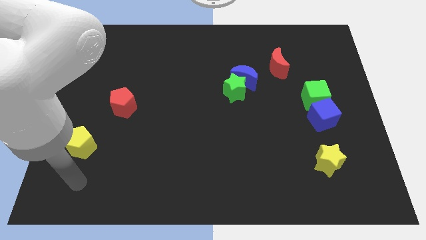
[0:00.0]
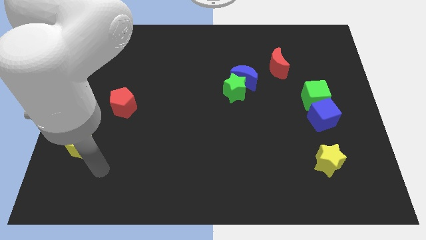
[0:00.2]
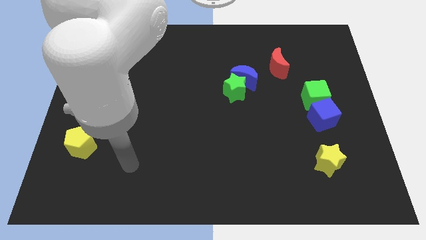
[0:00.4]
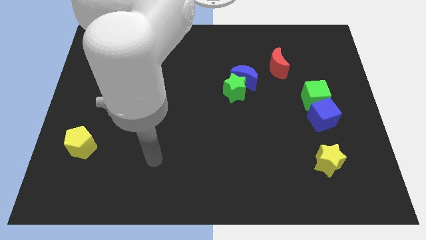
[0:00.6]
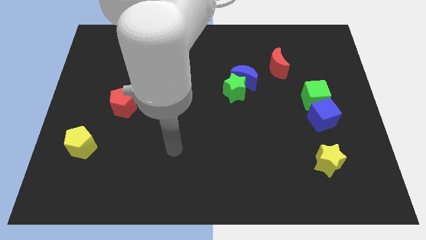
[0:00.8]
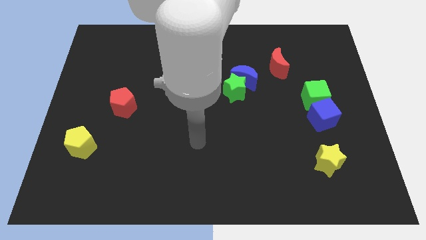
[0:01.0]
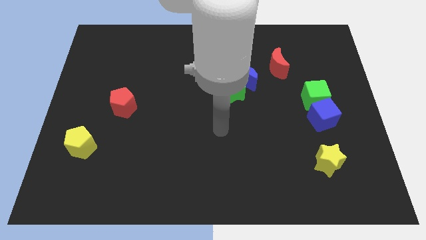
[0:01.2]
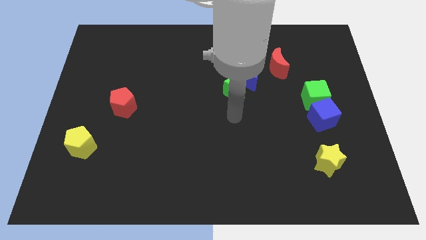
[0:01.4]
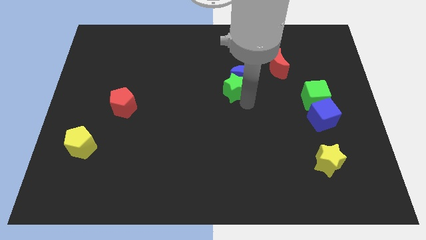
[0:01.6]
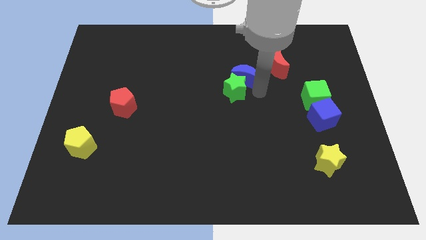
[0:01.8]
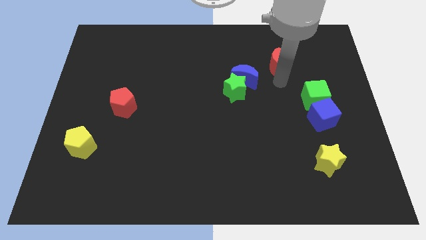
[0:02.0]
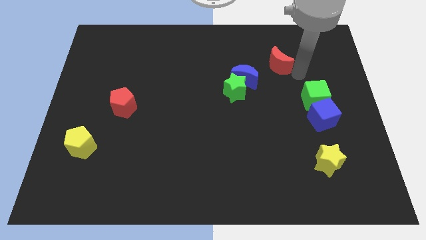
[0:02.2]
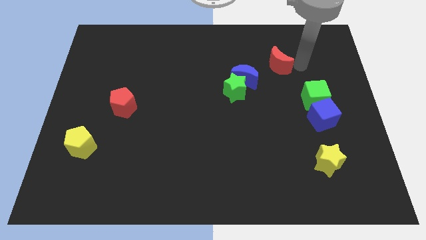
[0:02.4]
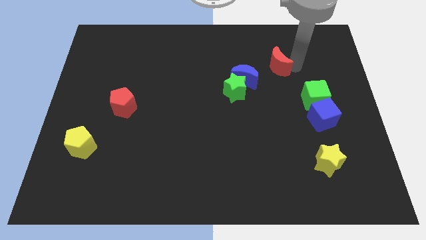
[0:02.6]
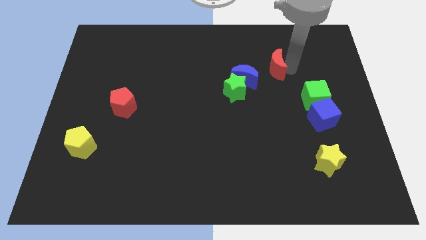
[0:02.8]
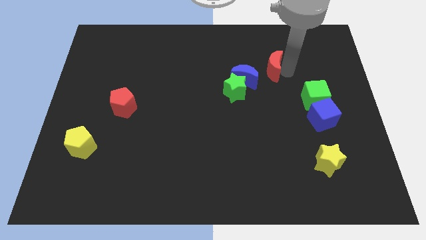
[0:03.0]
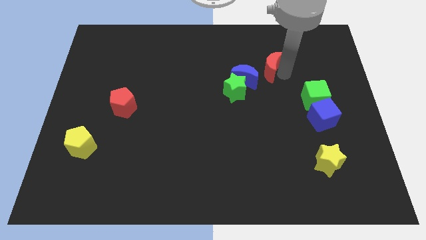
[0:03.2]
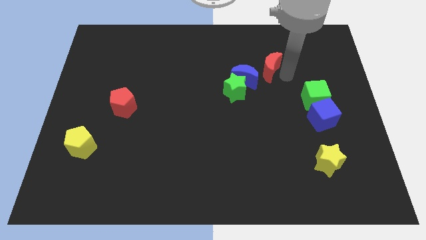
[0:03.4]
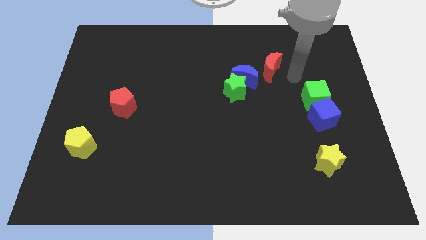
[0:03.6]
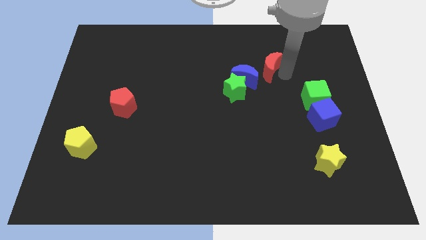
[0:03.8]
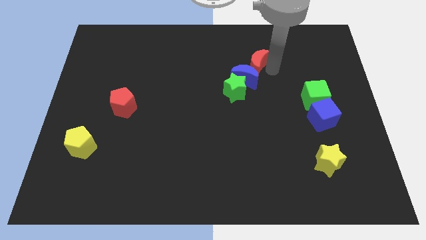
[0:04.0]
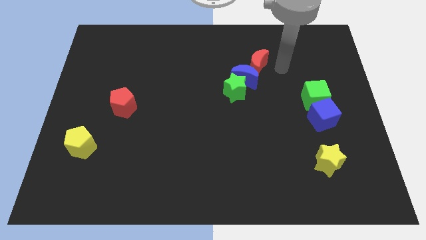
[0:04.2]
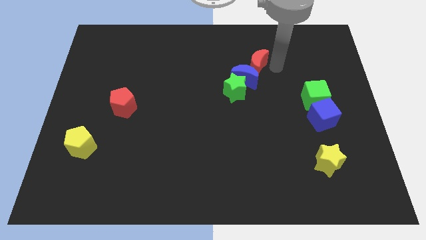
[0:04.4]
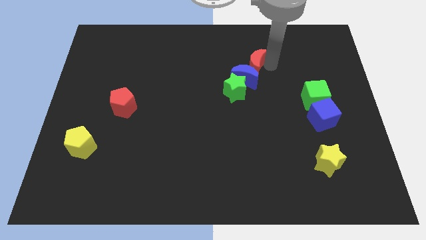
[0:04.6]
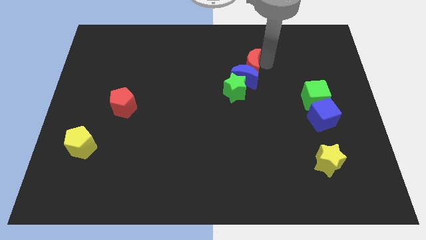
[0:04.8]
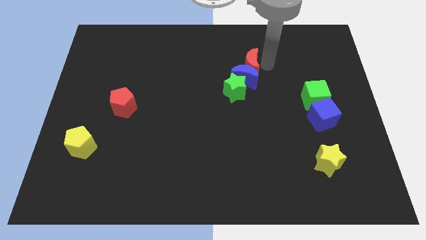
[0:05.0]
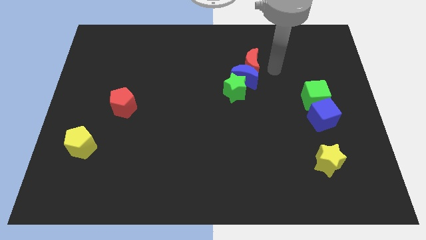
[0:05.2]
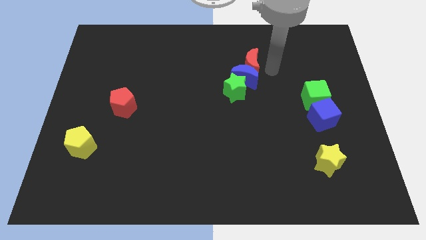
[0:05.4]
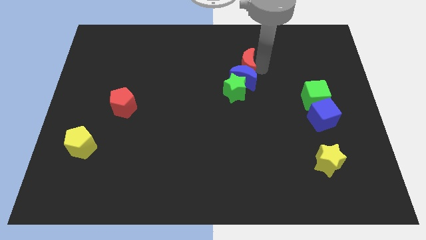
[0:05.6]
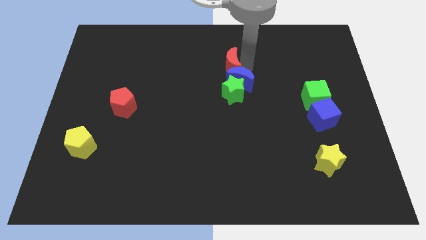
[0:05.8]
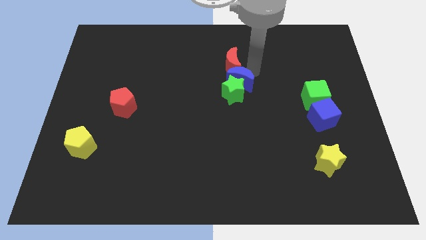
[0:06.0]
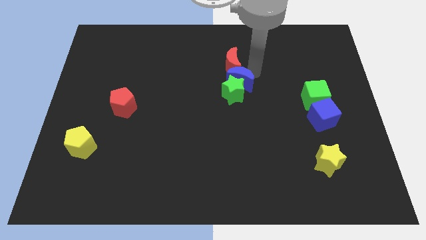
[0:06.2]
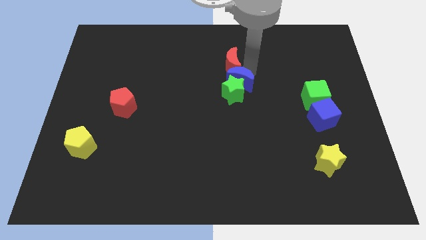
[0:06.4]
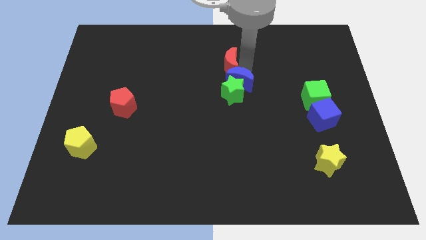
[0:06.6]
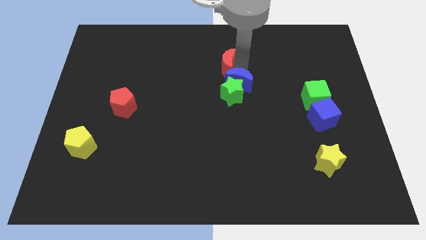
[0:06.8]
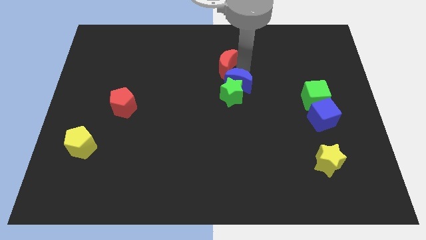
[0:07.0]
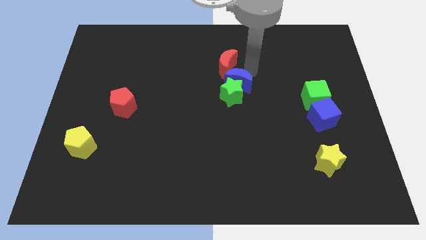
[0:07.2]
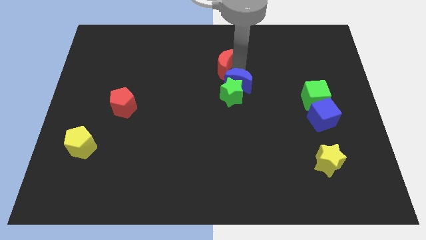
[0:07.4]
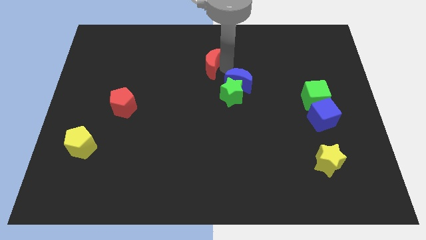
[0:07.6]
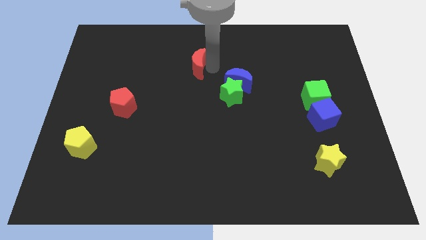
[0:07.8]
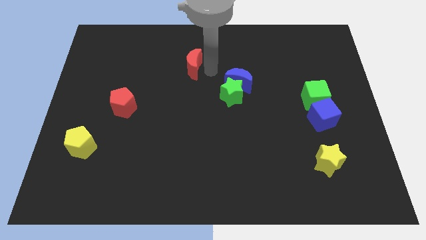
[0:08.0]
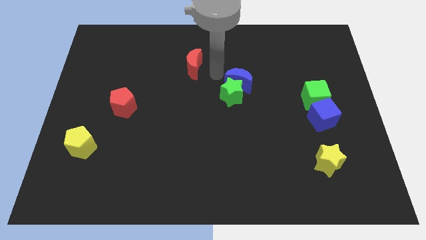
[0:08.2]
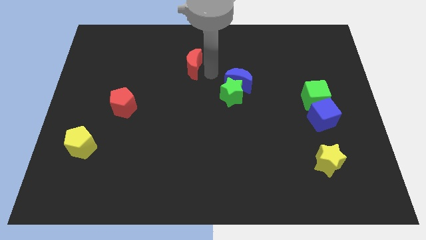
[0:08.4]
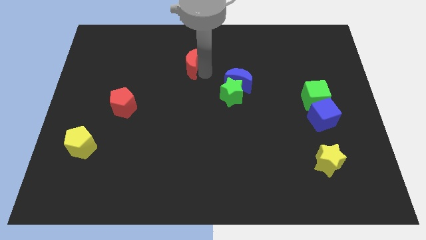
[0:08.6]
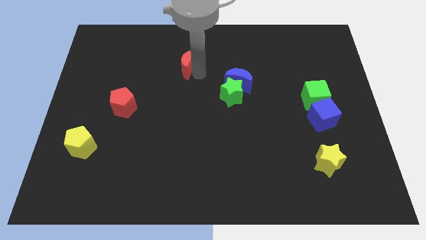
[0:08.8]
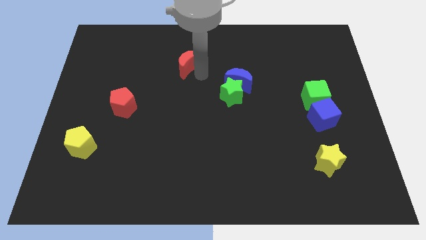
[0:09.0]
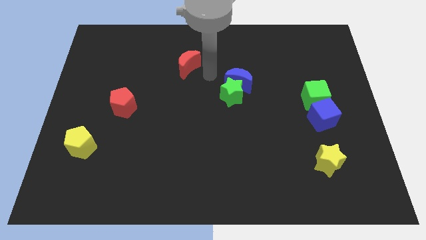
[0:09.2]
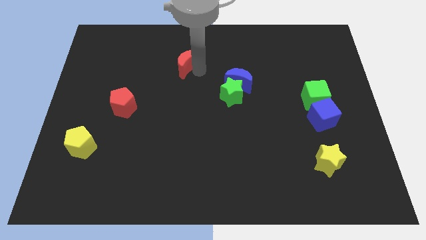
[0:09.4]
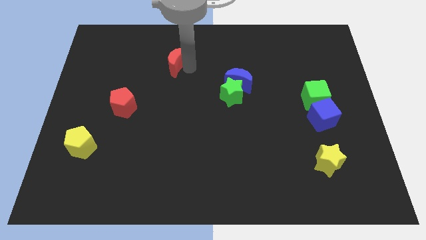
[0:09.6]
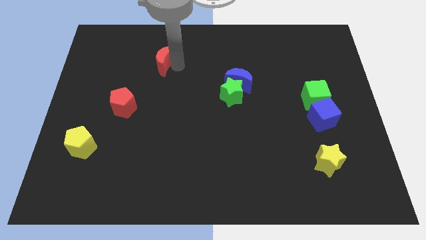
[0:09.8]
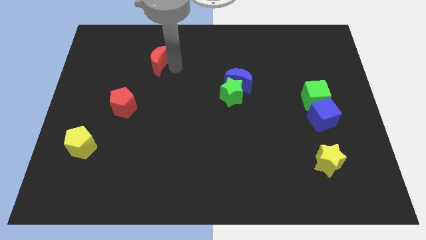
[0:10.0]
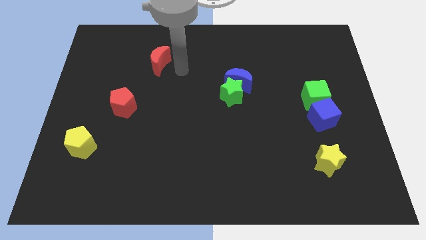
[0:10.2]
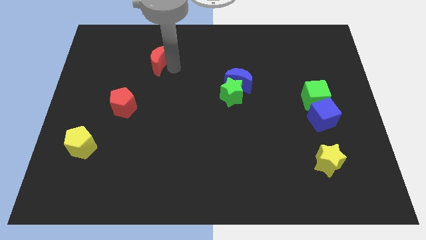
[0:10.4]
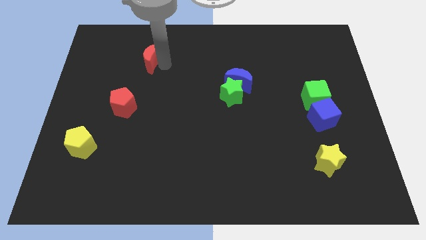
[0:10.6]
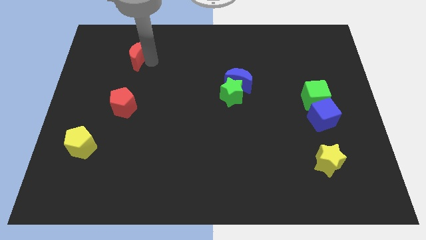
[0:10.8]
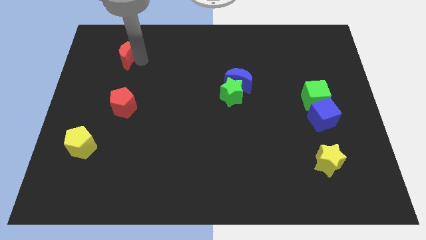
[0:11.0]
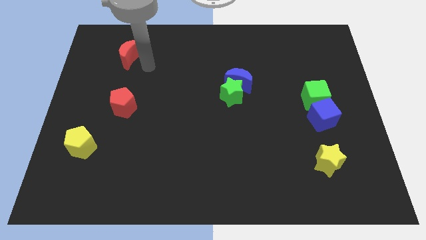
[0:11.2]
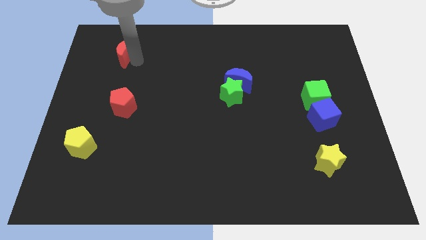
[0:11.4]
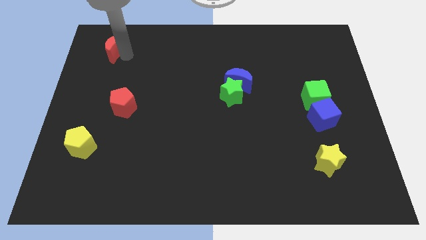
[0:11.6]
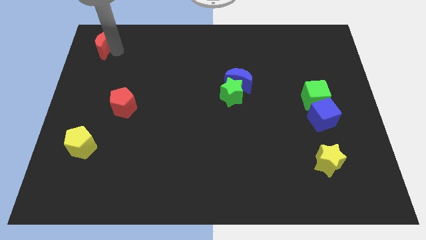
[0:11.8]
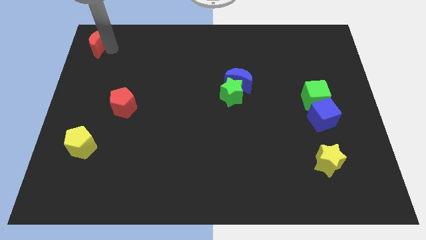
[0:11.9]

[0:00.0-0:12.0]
push the red moon to the top left of the board

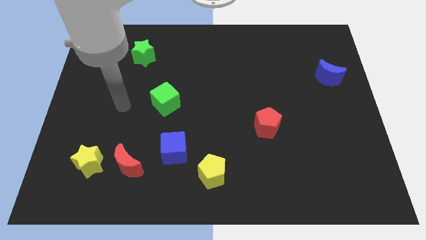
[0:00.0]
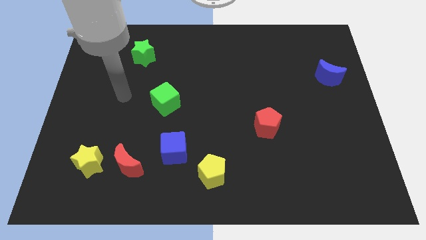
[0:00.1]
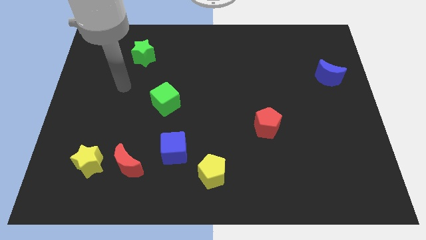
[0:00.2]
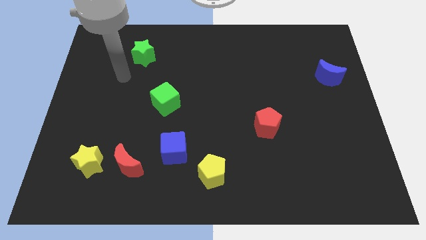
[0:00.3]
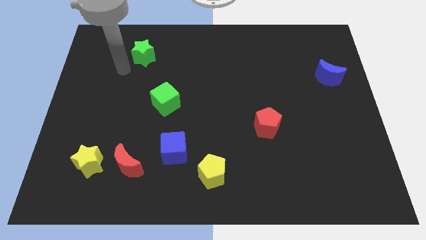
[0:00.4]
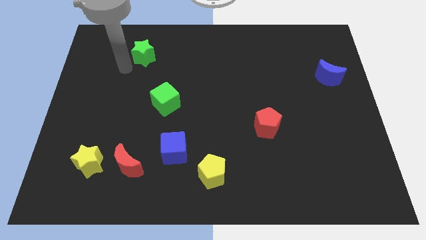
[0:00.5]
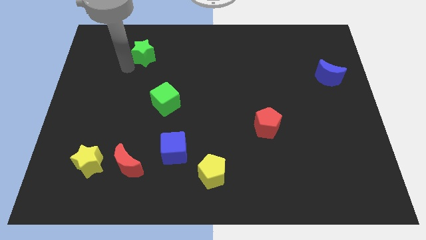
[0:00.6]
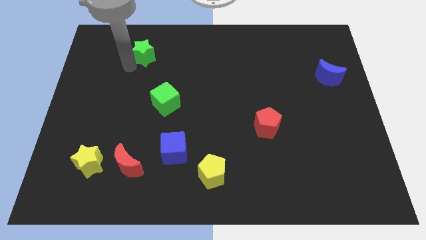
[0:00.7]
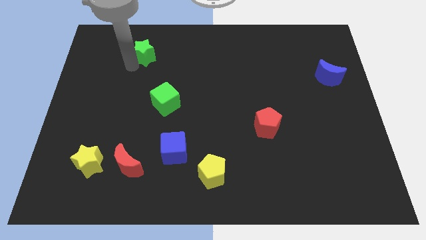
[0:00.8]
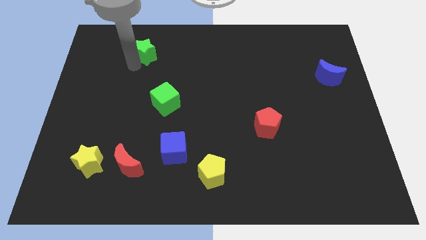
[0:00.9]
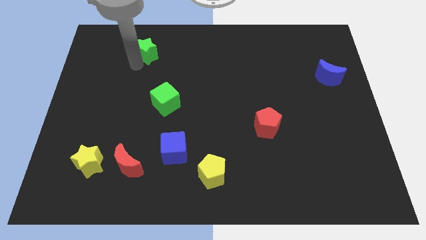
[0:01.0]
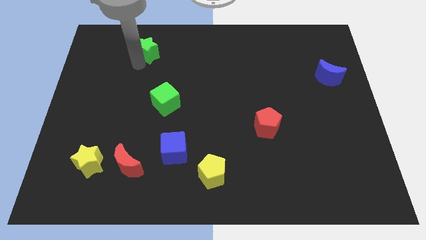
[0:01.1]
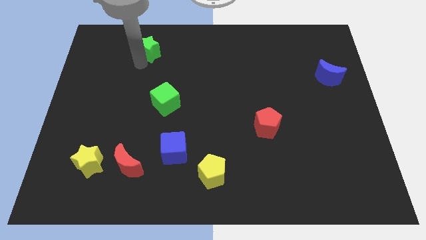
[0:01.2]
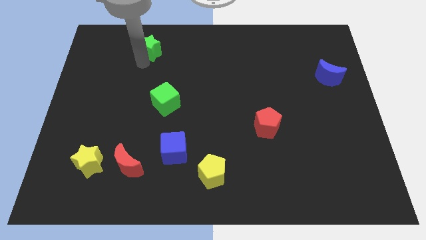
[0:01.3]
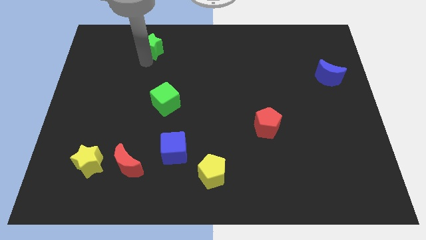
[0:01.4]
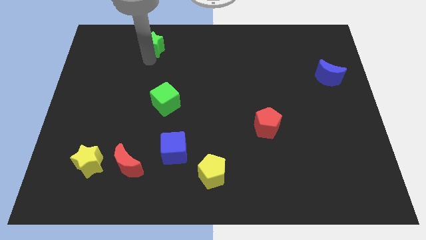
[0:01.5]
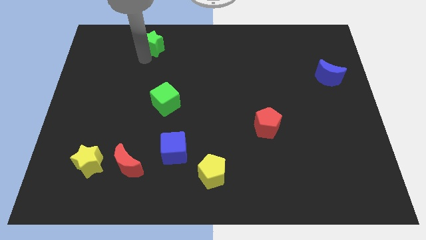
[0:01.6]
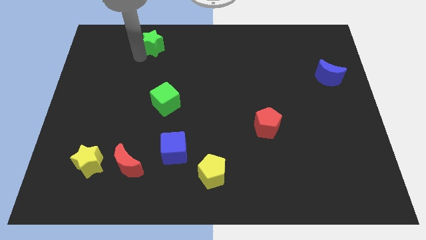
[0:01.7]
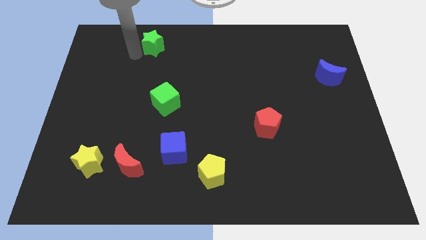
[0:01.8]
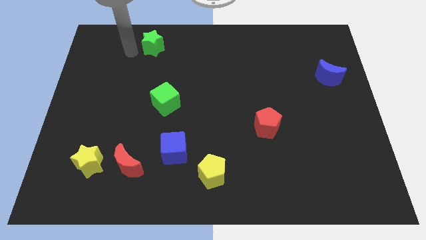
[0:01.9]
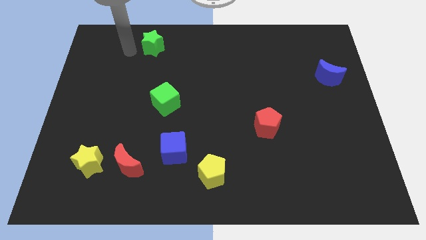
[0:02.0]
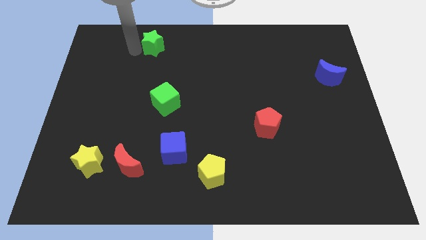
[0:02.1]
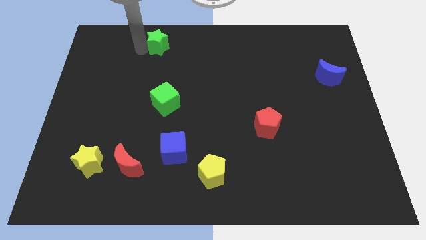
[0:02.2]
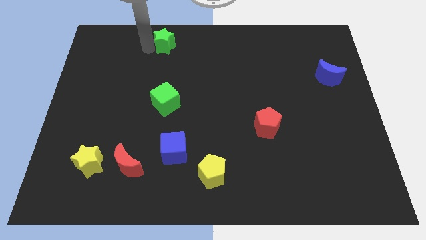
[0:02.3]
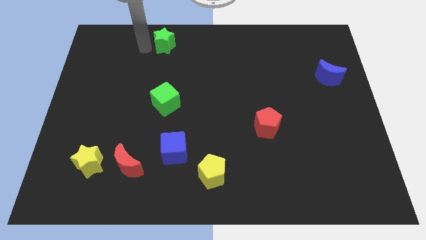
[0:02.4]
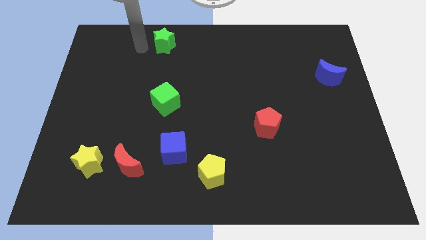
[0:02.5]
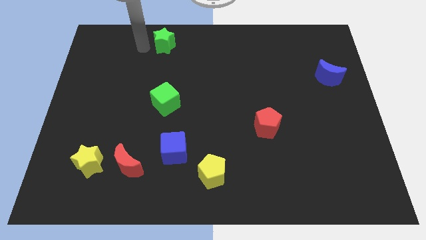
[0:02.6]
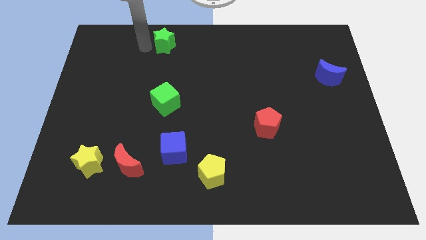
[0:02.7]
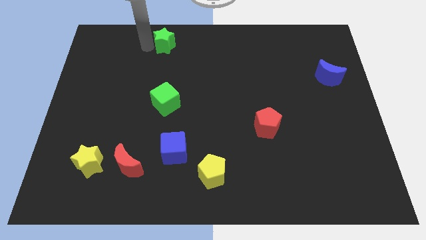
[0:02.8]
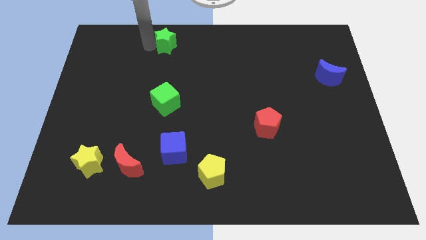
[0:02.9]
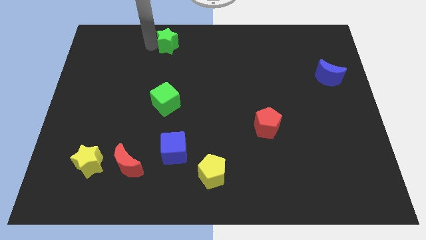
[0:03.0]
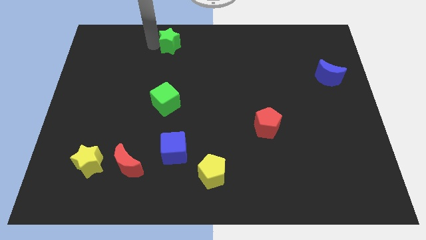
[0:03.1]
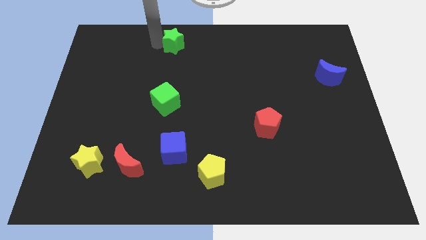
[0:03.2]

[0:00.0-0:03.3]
push the green star to the towards your base
